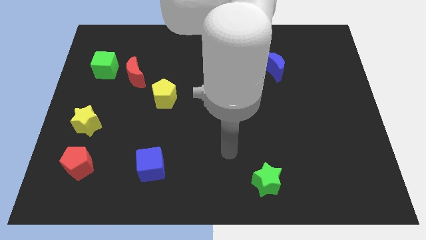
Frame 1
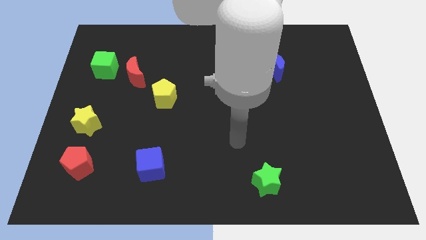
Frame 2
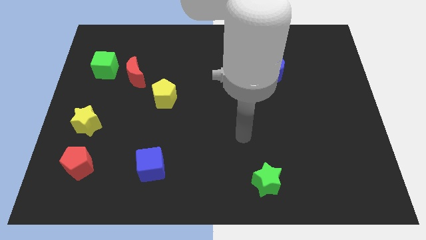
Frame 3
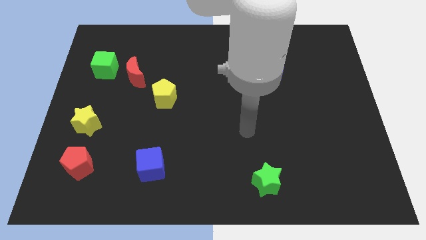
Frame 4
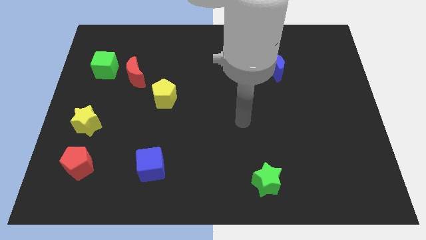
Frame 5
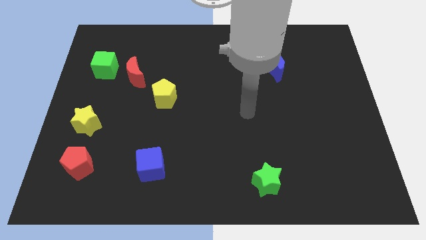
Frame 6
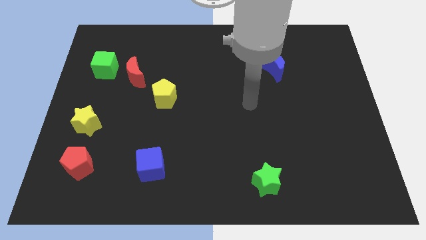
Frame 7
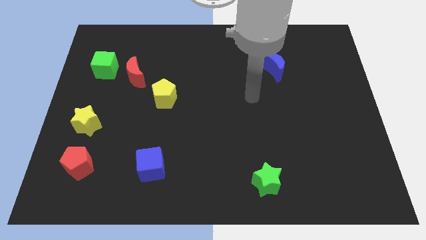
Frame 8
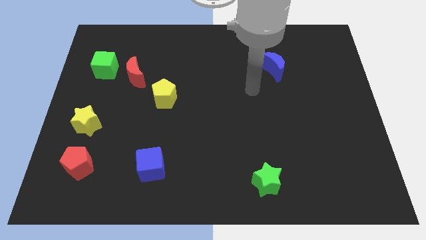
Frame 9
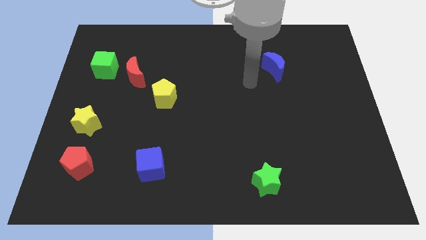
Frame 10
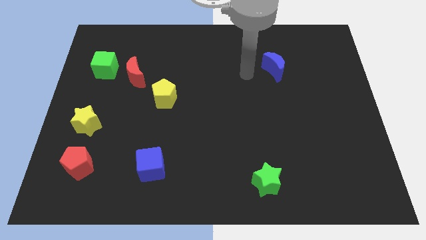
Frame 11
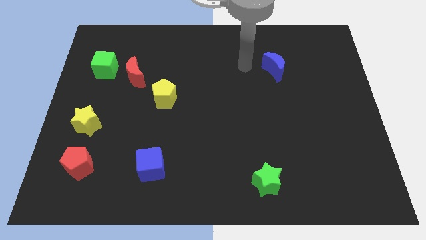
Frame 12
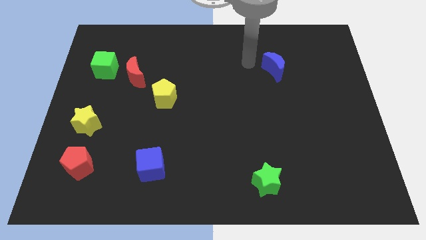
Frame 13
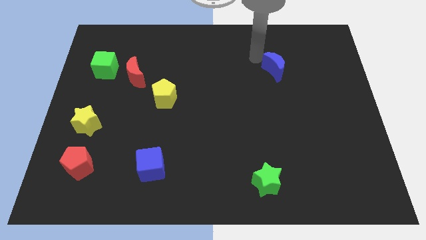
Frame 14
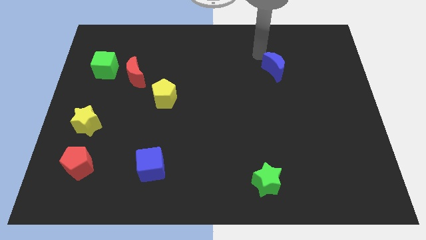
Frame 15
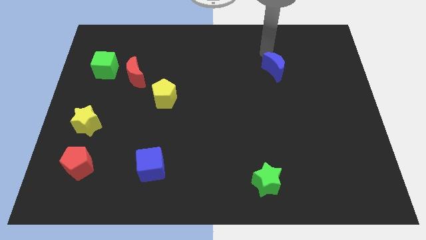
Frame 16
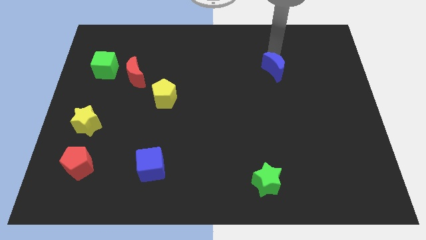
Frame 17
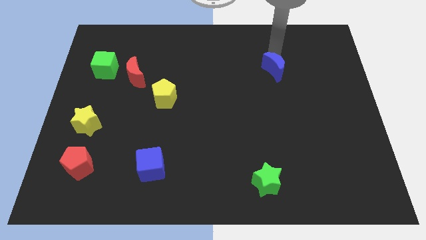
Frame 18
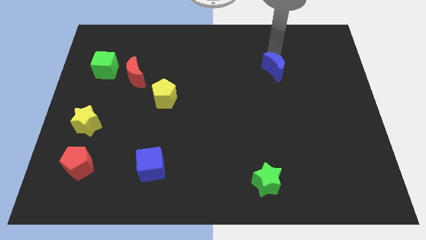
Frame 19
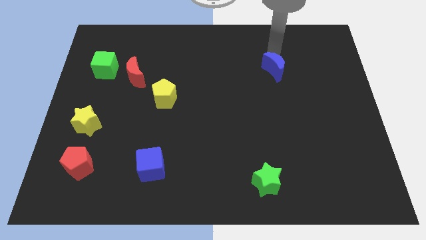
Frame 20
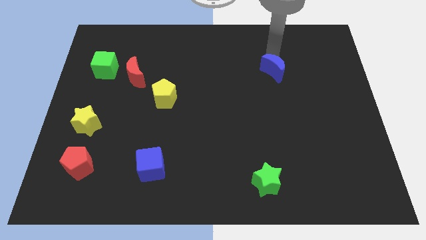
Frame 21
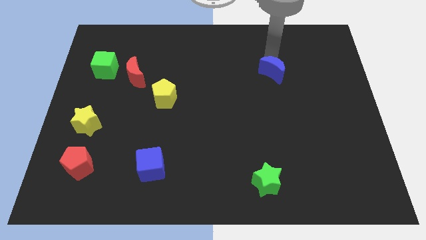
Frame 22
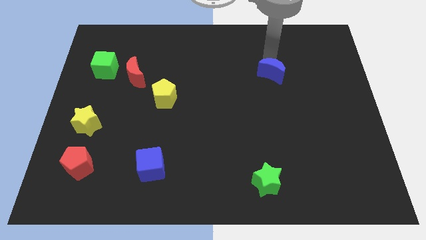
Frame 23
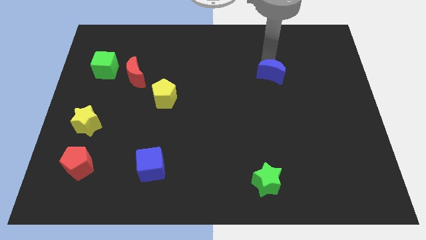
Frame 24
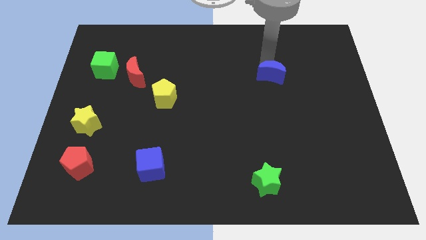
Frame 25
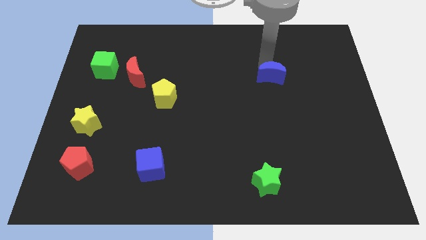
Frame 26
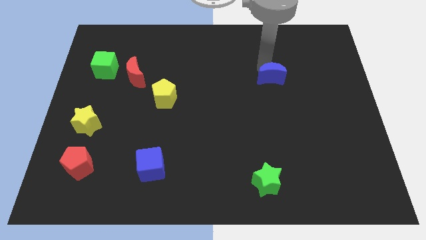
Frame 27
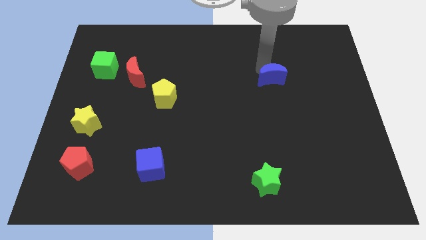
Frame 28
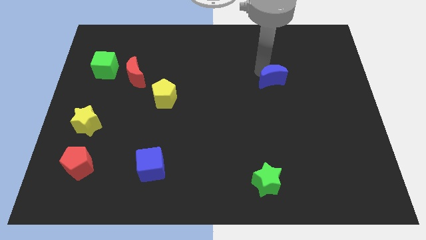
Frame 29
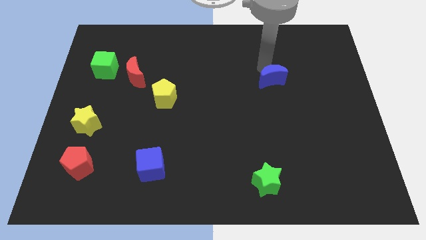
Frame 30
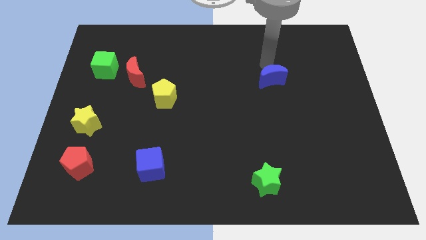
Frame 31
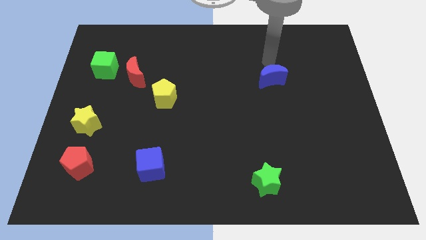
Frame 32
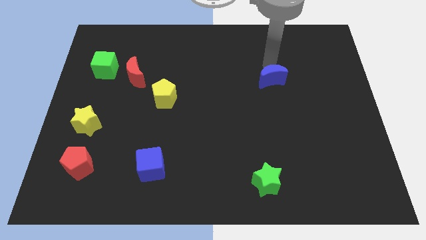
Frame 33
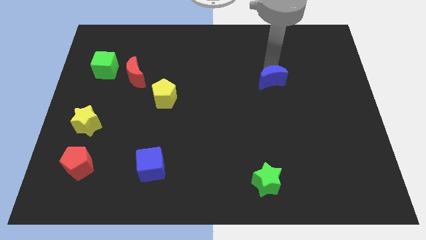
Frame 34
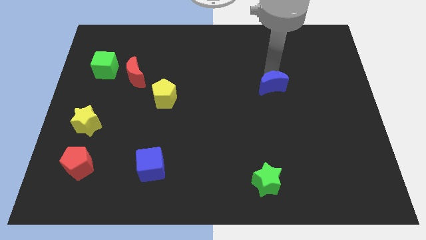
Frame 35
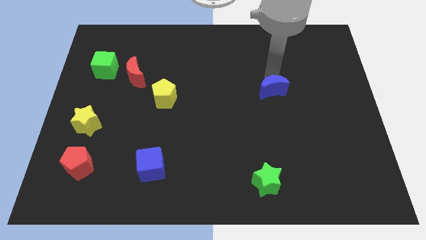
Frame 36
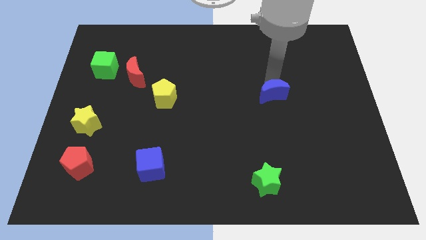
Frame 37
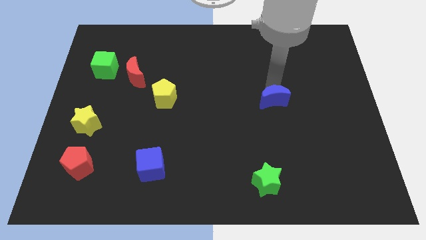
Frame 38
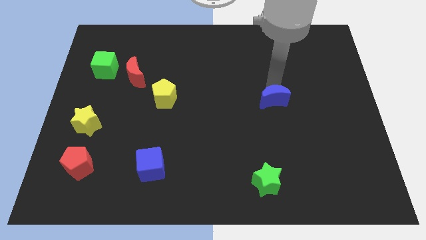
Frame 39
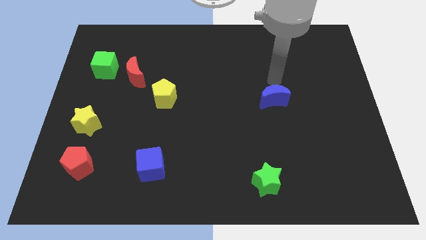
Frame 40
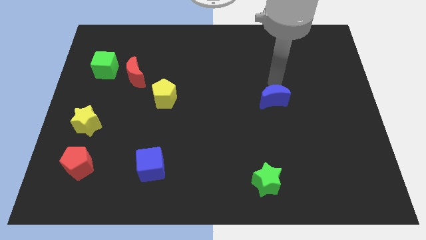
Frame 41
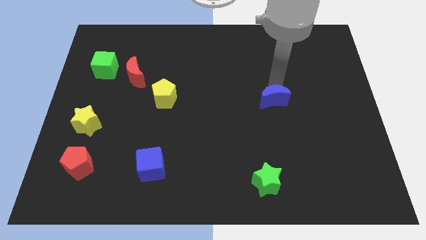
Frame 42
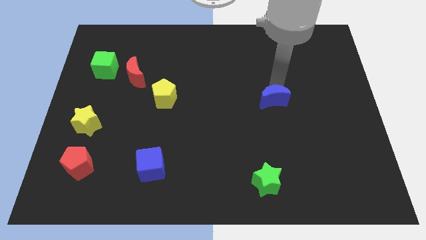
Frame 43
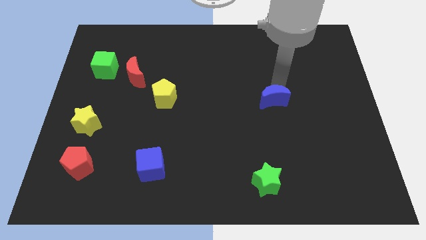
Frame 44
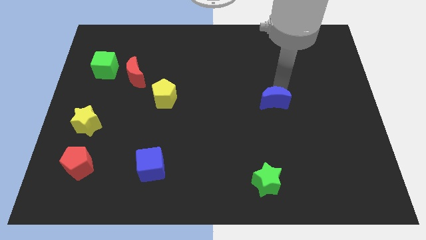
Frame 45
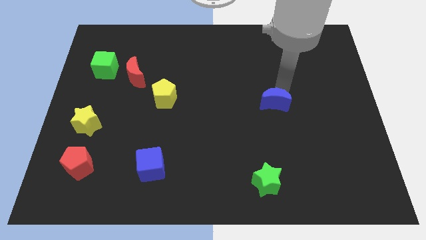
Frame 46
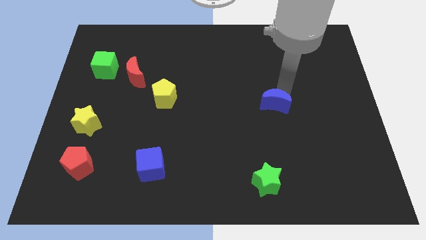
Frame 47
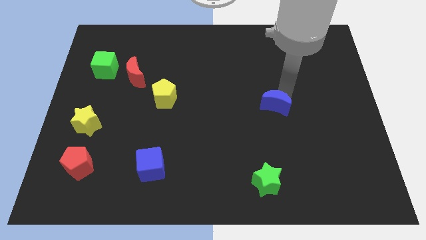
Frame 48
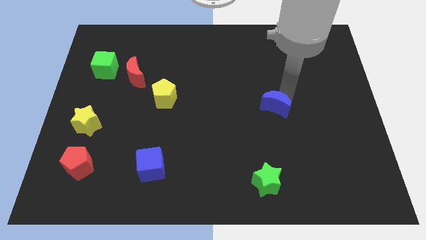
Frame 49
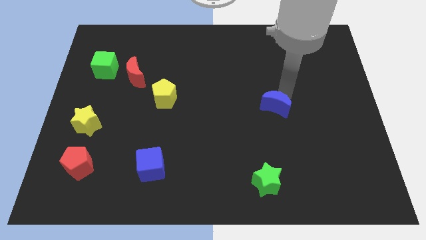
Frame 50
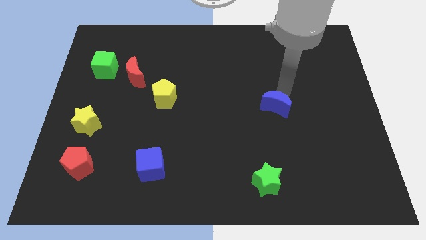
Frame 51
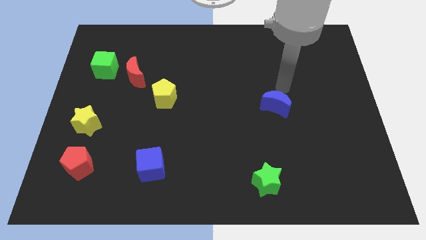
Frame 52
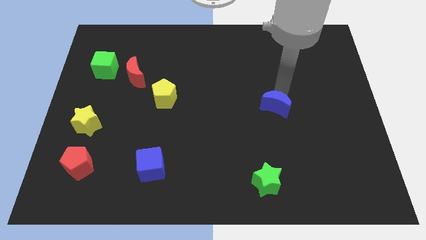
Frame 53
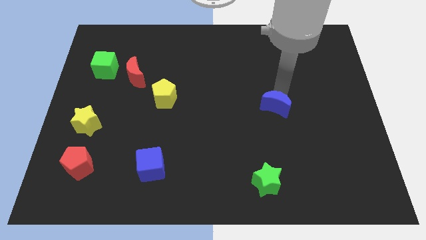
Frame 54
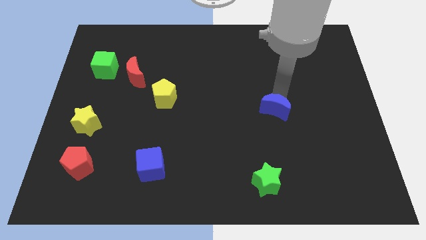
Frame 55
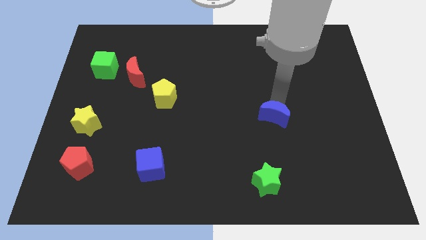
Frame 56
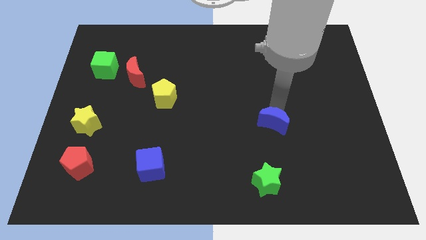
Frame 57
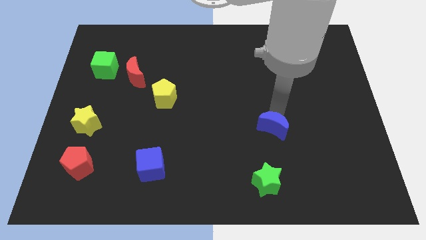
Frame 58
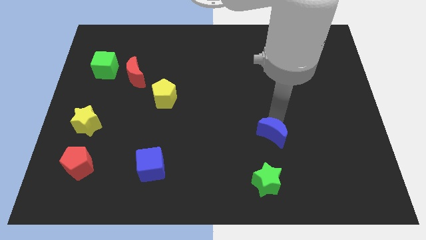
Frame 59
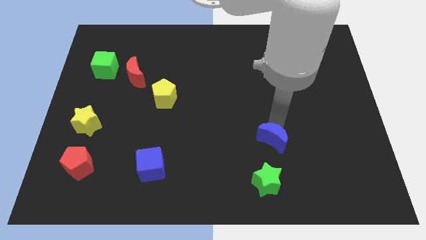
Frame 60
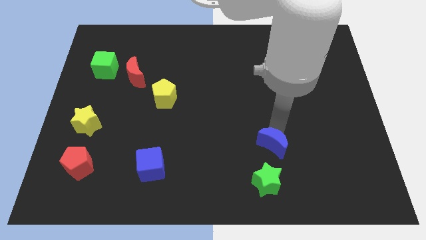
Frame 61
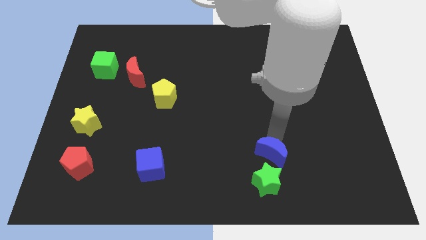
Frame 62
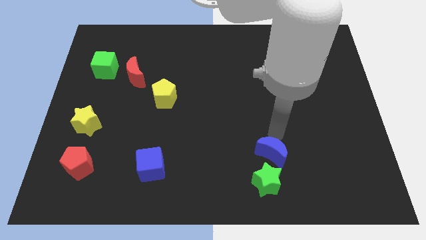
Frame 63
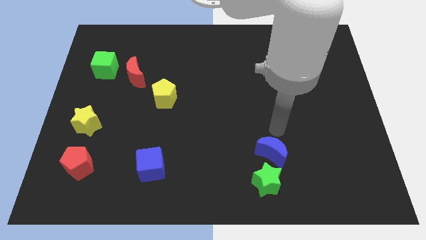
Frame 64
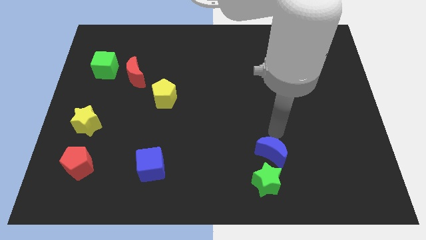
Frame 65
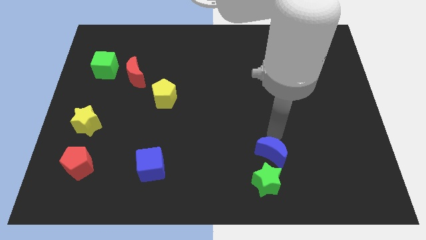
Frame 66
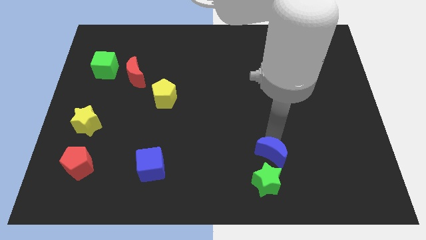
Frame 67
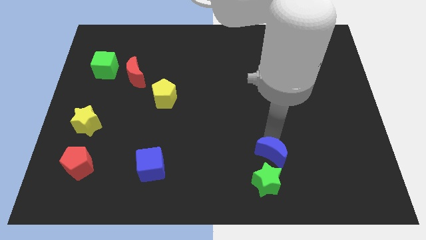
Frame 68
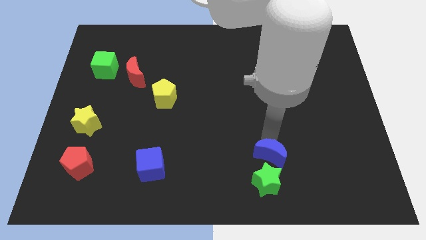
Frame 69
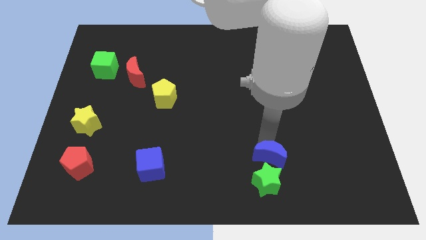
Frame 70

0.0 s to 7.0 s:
push the blue moon close to the green star
